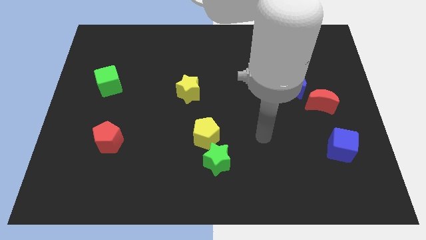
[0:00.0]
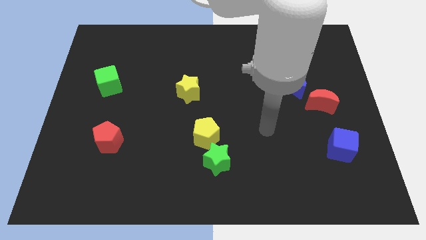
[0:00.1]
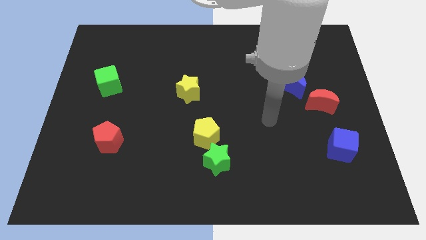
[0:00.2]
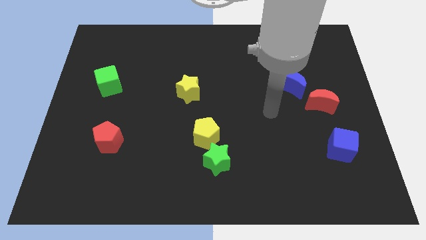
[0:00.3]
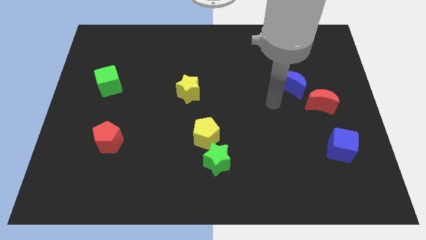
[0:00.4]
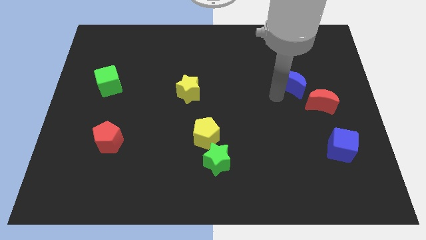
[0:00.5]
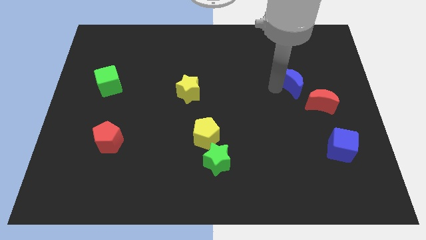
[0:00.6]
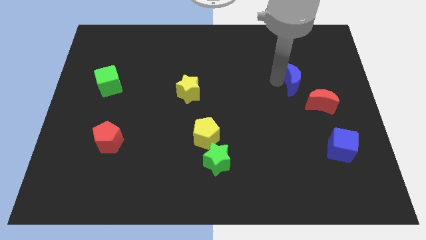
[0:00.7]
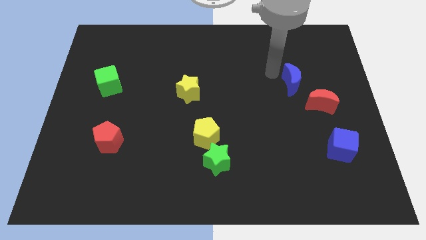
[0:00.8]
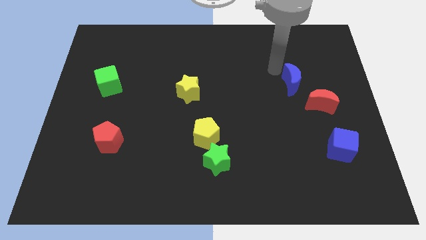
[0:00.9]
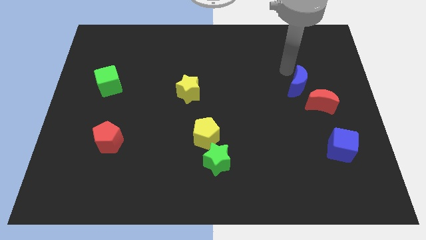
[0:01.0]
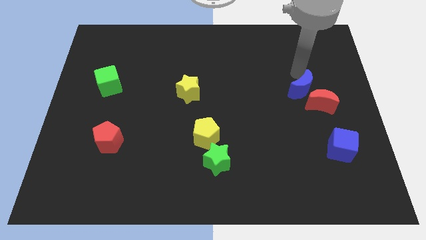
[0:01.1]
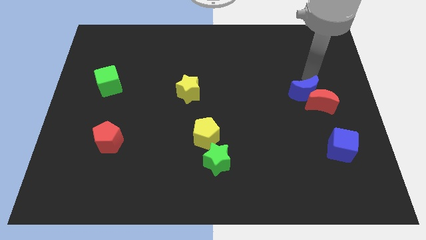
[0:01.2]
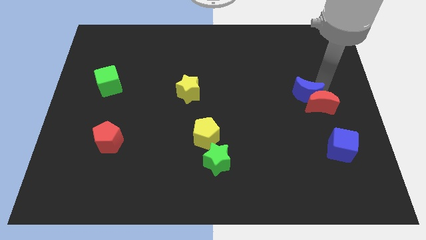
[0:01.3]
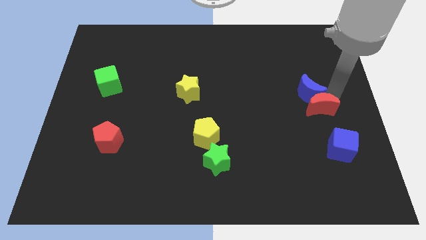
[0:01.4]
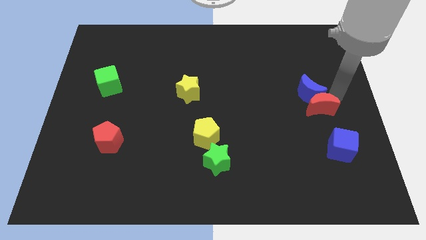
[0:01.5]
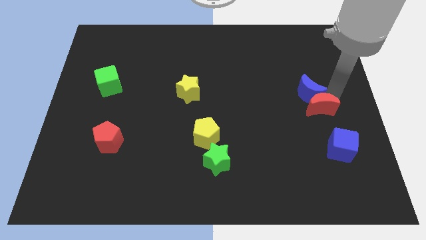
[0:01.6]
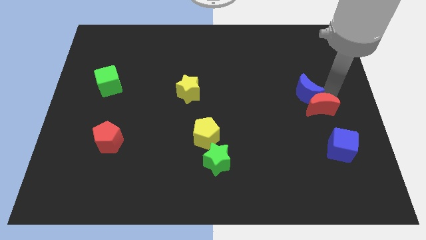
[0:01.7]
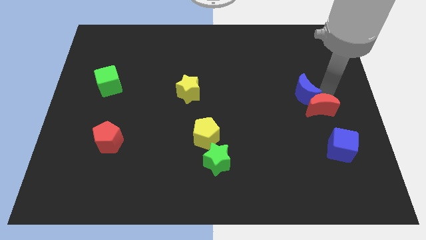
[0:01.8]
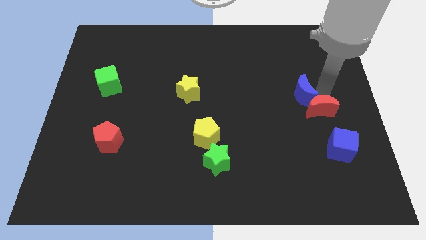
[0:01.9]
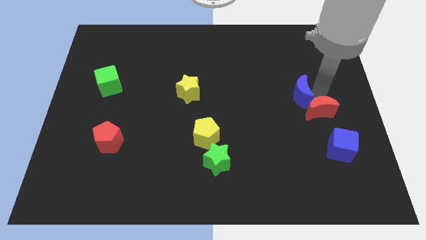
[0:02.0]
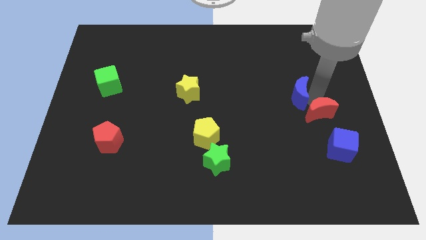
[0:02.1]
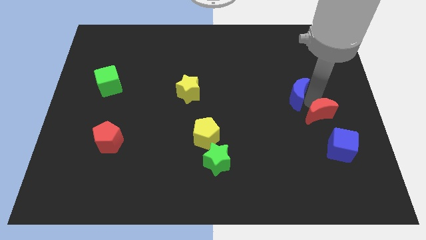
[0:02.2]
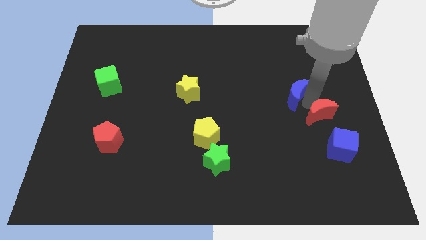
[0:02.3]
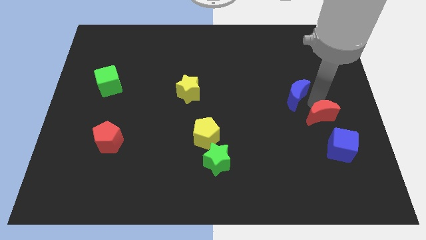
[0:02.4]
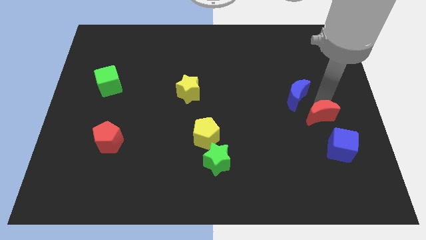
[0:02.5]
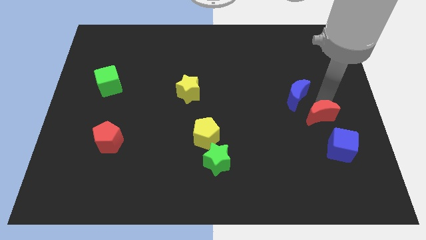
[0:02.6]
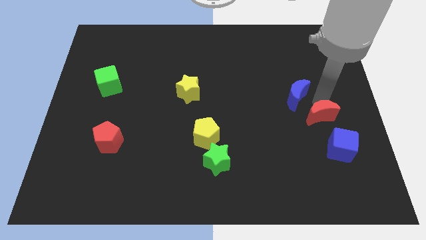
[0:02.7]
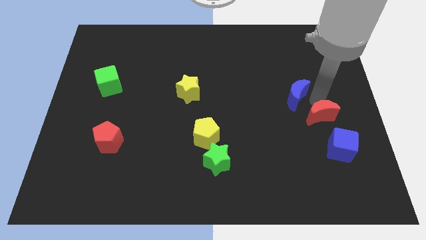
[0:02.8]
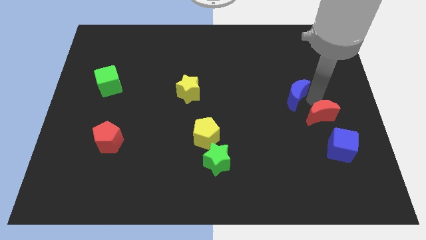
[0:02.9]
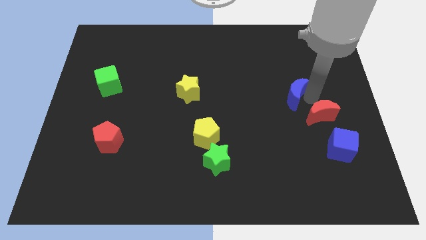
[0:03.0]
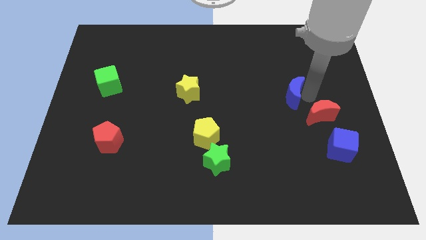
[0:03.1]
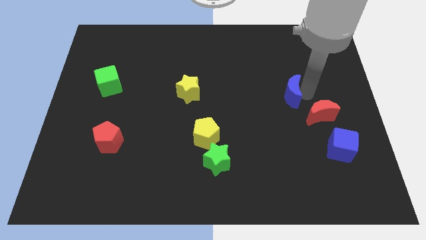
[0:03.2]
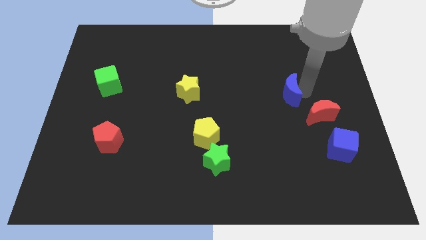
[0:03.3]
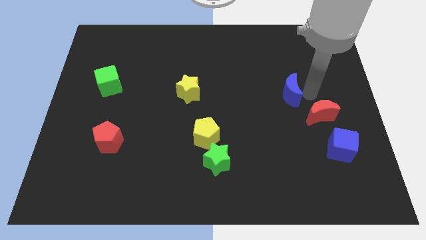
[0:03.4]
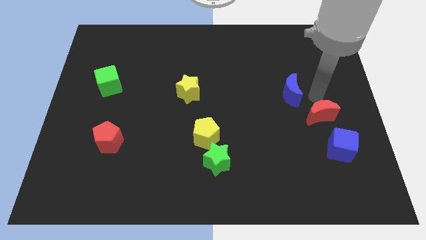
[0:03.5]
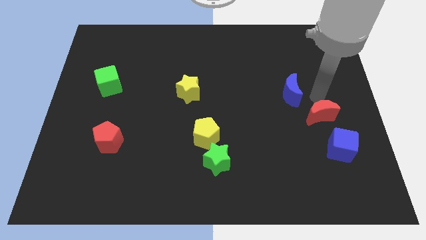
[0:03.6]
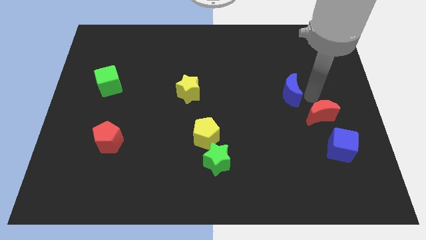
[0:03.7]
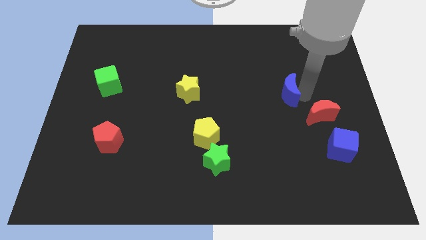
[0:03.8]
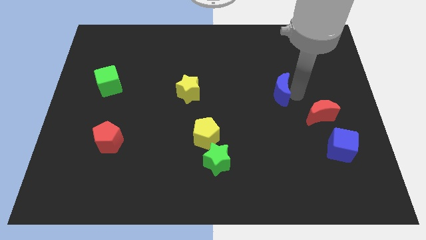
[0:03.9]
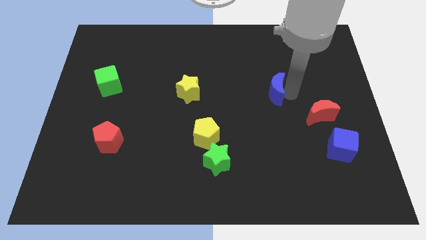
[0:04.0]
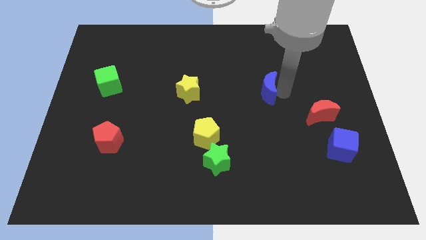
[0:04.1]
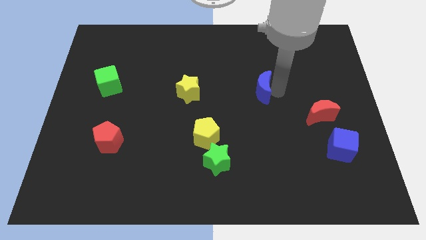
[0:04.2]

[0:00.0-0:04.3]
move the blue moon to the left a little bit

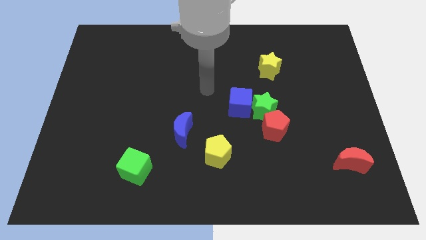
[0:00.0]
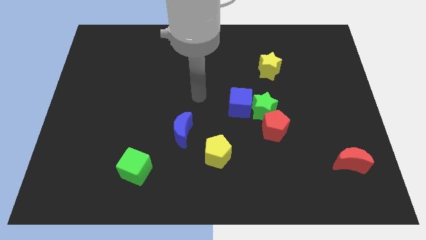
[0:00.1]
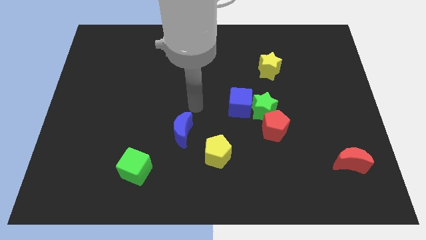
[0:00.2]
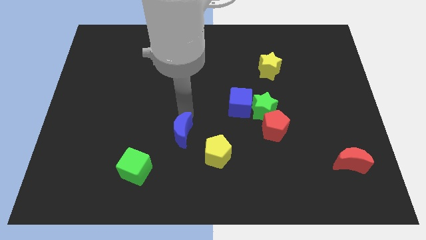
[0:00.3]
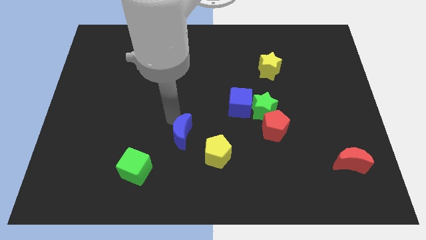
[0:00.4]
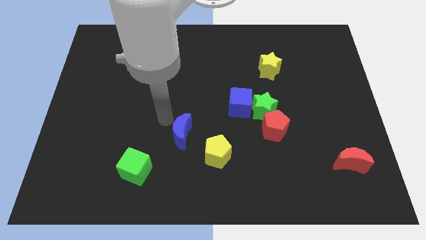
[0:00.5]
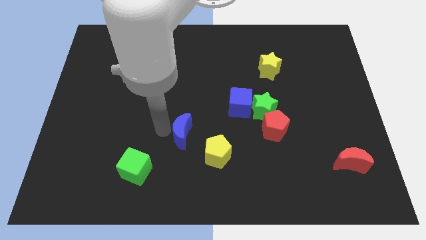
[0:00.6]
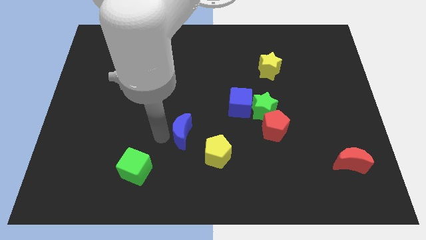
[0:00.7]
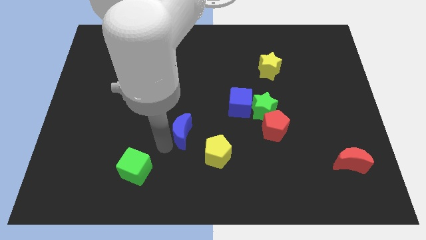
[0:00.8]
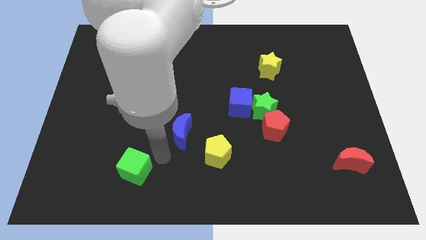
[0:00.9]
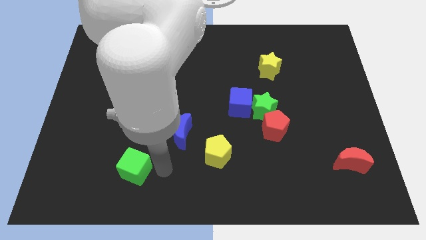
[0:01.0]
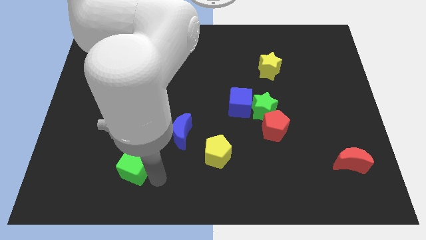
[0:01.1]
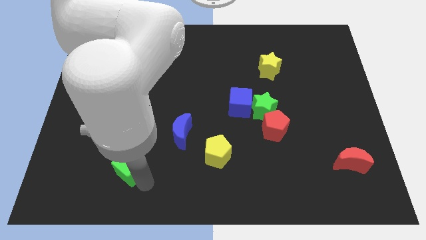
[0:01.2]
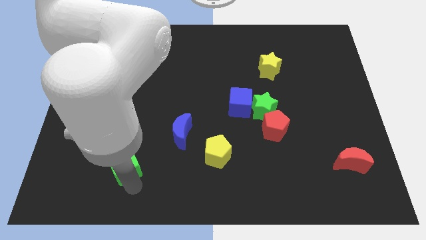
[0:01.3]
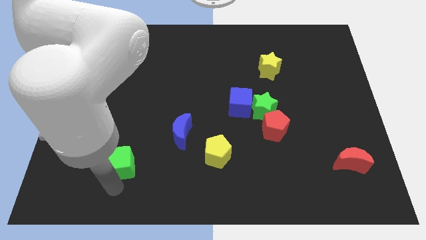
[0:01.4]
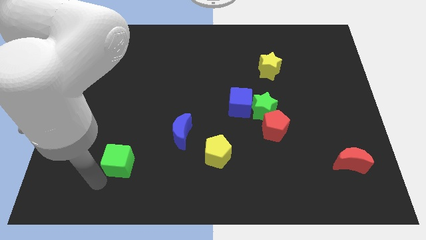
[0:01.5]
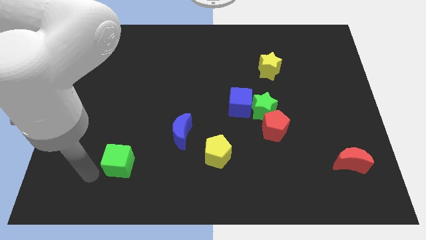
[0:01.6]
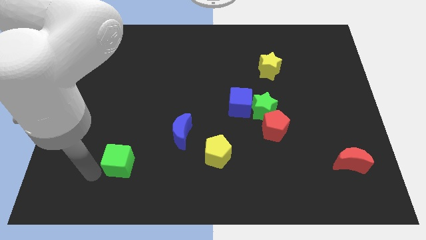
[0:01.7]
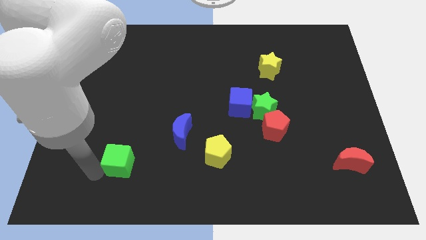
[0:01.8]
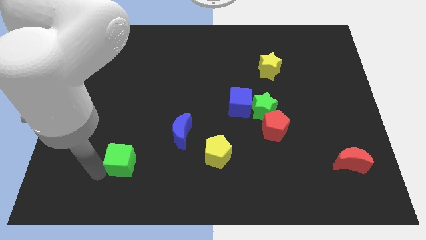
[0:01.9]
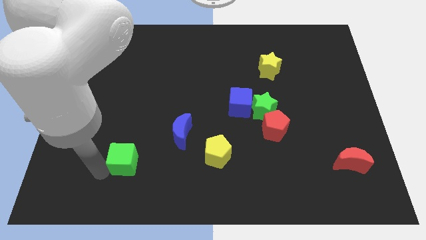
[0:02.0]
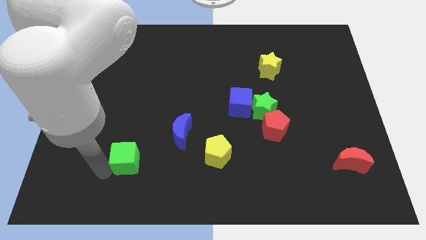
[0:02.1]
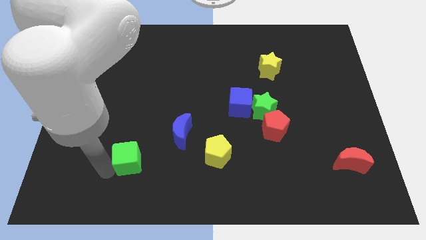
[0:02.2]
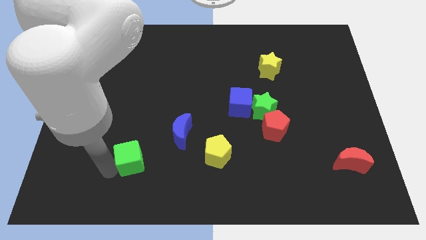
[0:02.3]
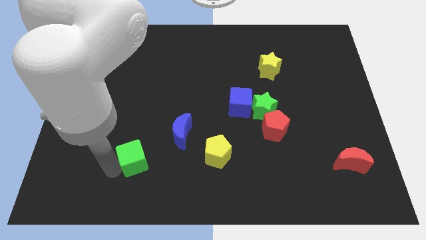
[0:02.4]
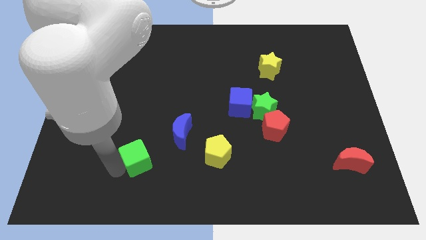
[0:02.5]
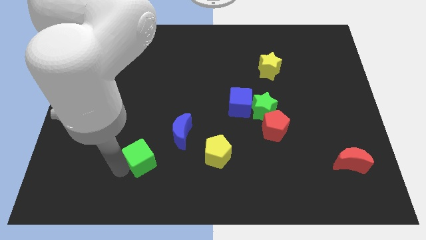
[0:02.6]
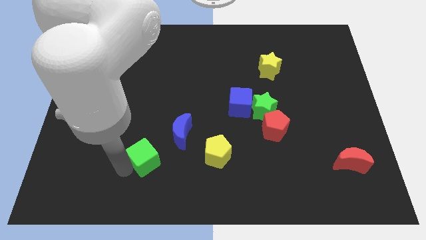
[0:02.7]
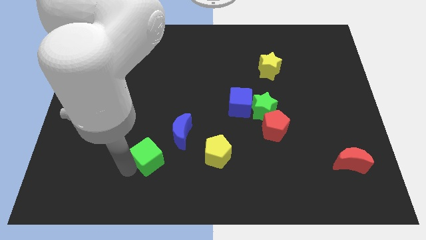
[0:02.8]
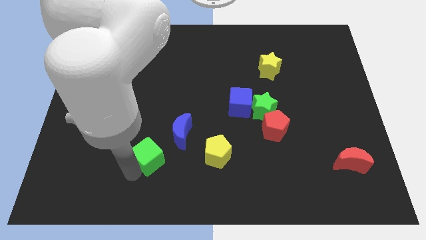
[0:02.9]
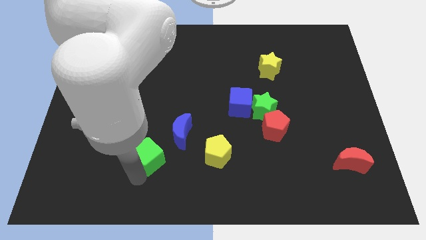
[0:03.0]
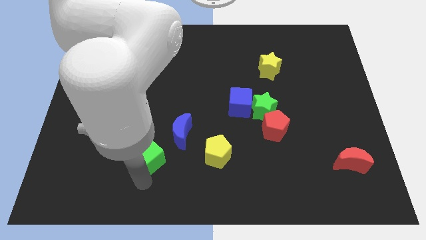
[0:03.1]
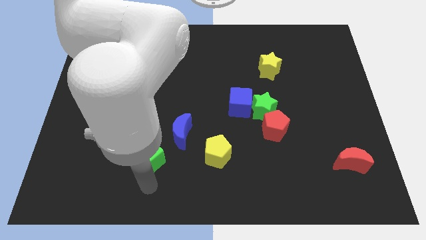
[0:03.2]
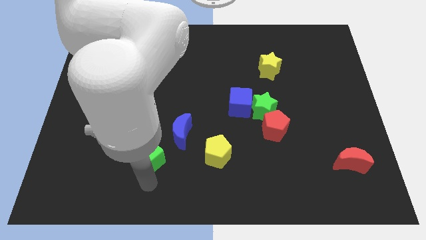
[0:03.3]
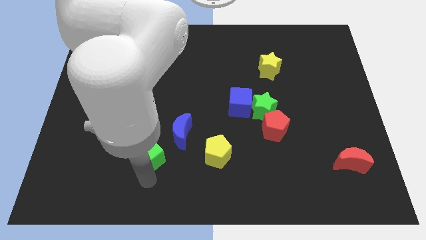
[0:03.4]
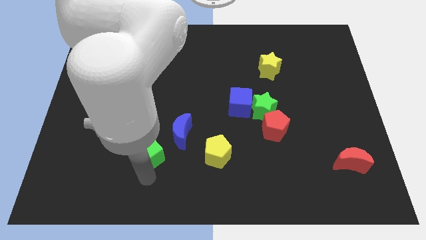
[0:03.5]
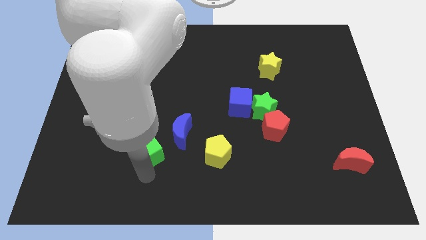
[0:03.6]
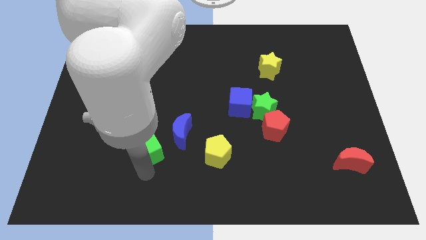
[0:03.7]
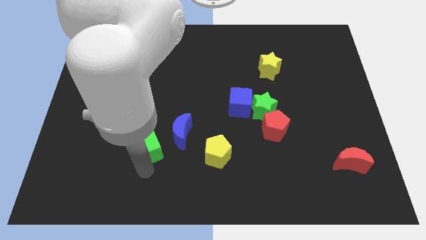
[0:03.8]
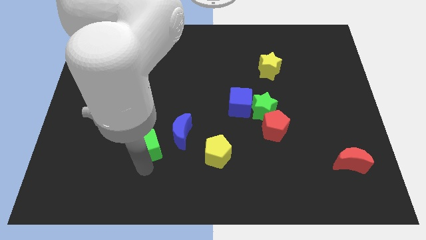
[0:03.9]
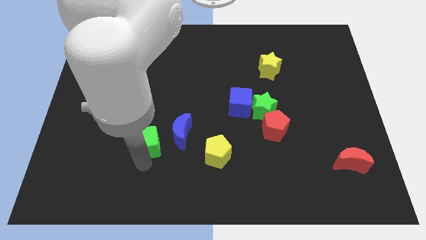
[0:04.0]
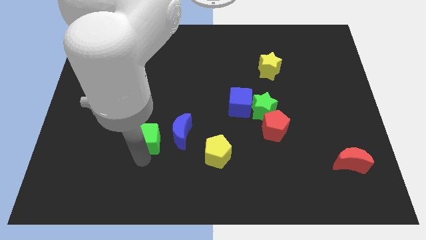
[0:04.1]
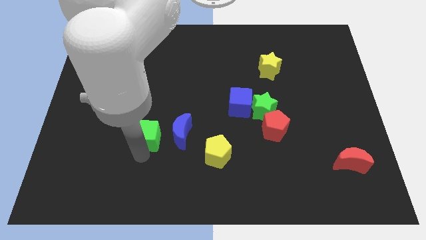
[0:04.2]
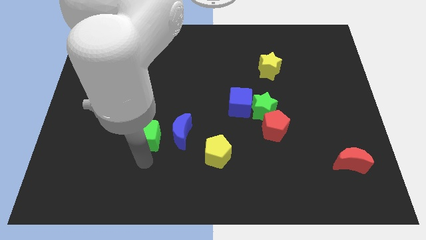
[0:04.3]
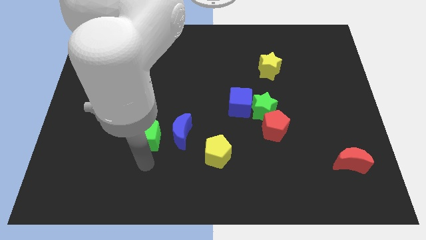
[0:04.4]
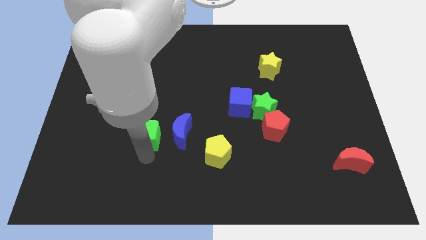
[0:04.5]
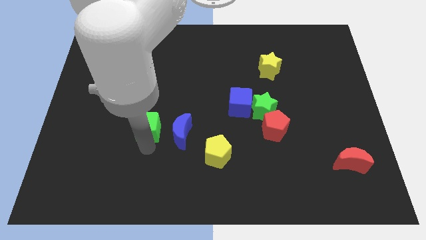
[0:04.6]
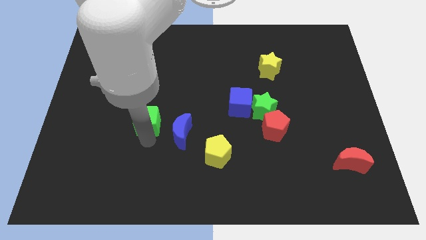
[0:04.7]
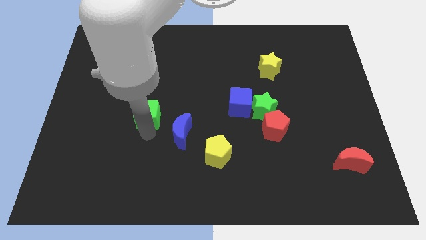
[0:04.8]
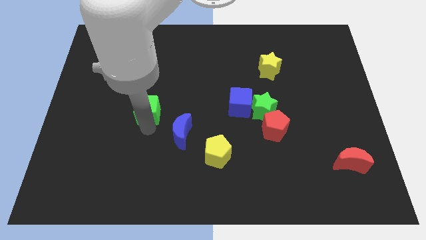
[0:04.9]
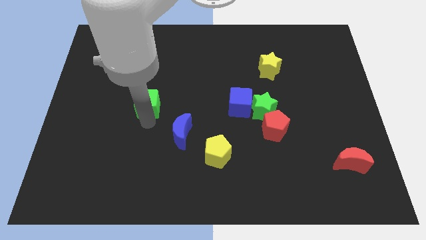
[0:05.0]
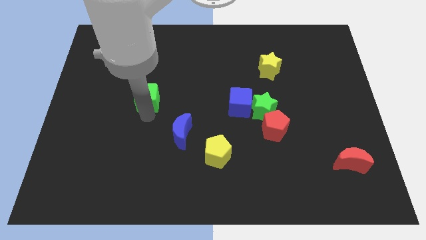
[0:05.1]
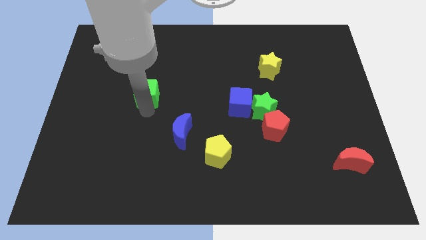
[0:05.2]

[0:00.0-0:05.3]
move the green cube upwards
